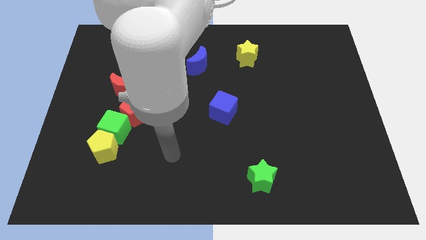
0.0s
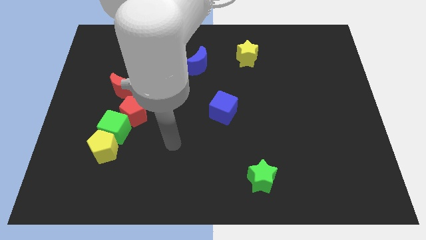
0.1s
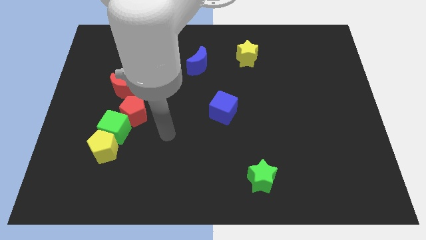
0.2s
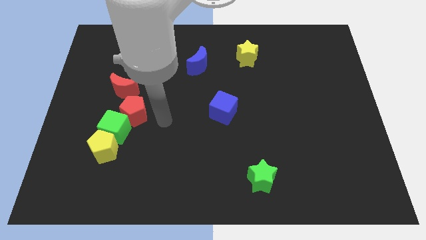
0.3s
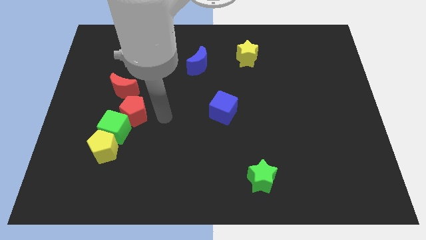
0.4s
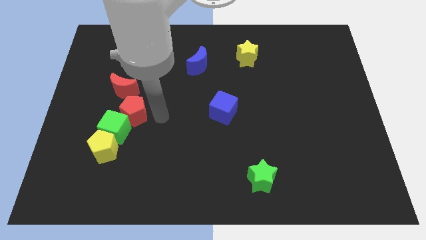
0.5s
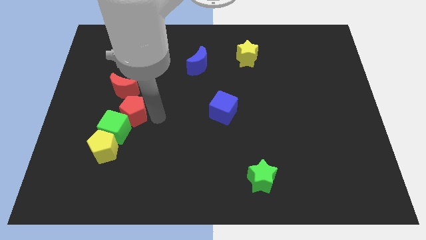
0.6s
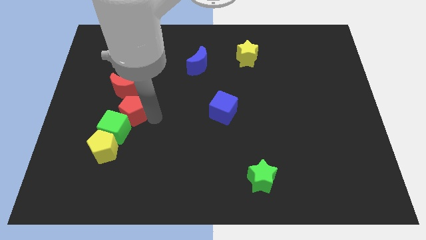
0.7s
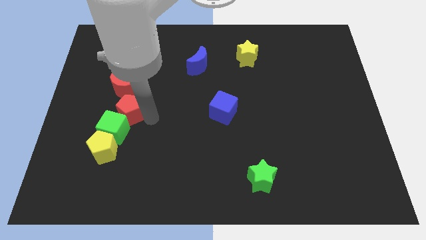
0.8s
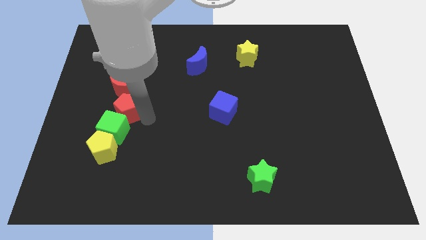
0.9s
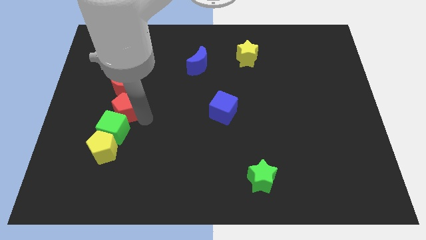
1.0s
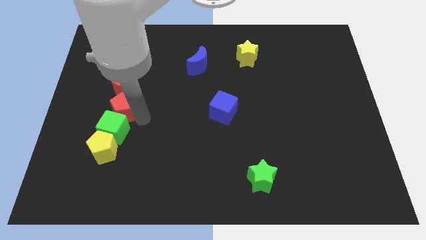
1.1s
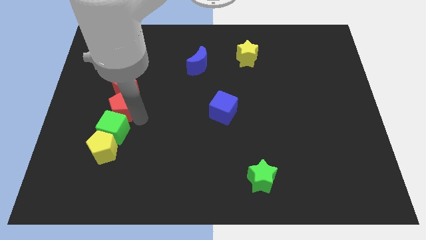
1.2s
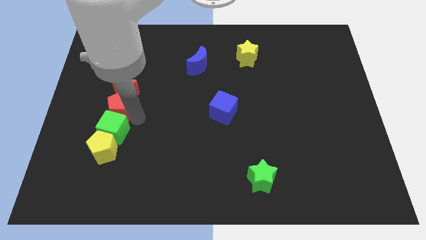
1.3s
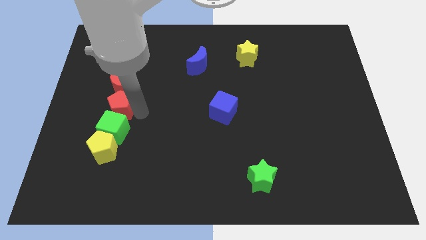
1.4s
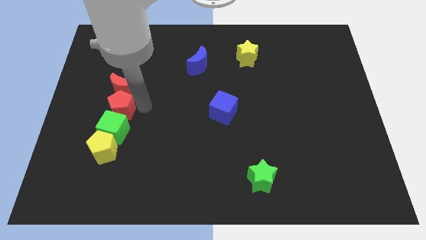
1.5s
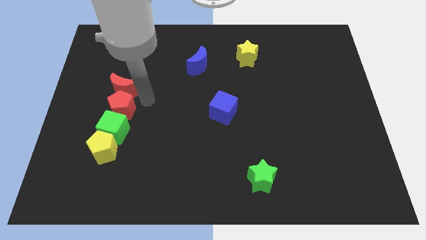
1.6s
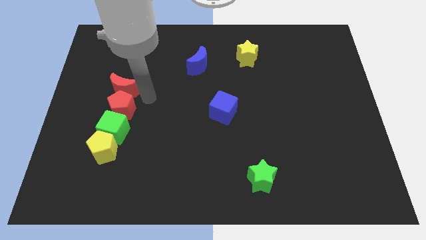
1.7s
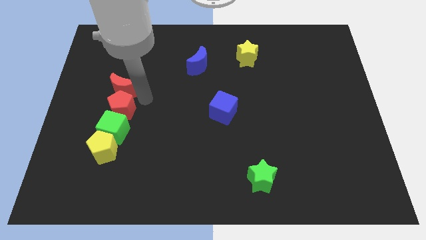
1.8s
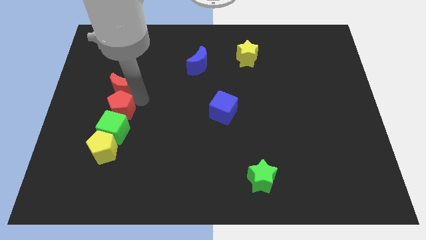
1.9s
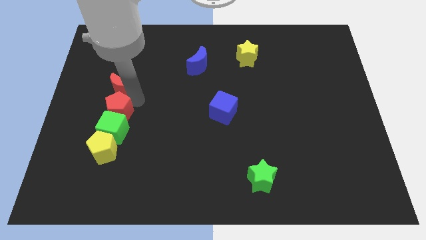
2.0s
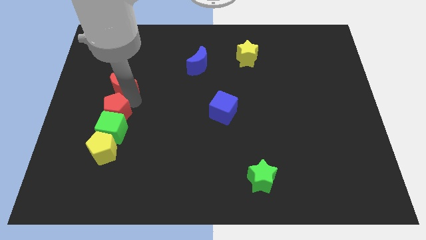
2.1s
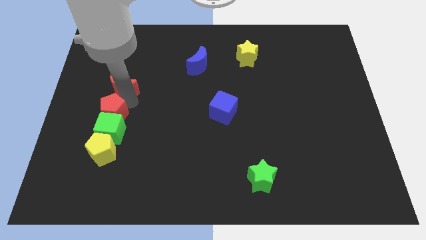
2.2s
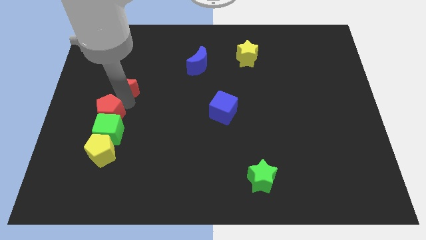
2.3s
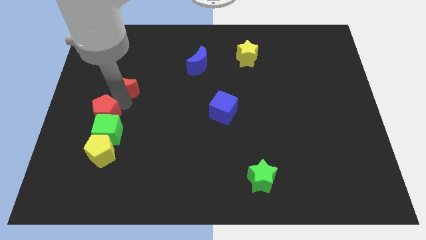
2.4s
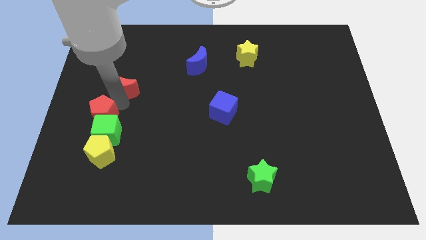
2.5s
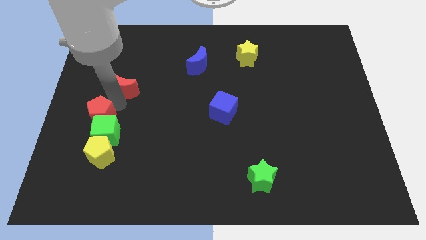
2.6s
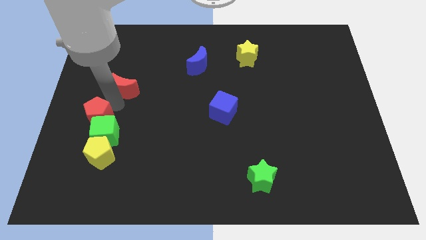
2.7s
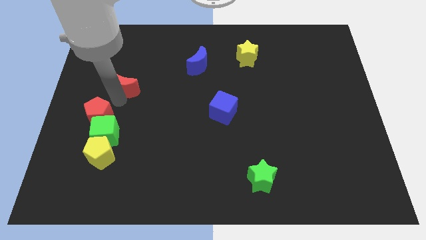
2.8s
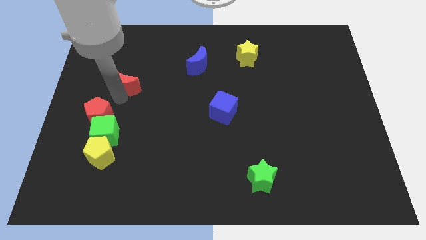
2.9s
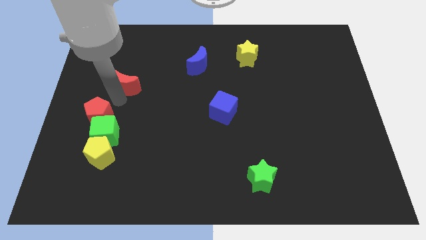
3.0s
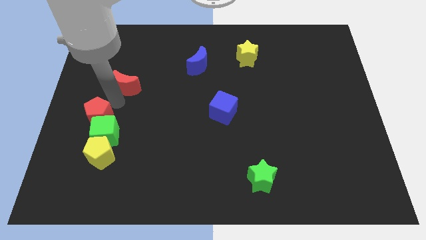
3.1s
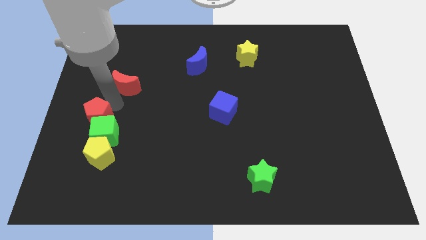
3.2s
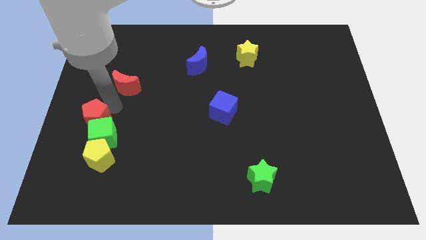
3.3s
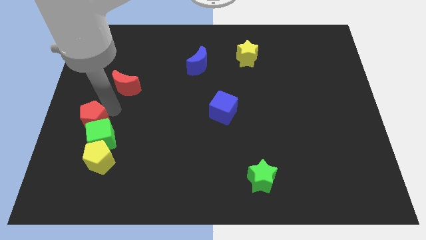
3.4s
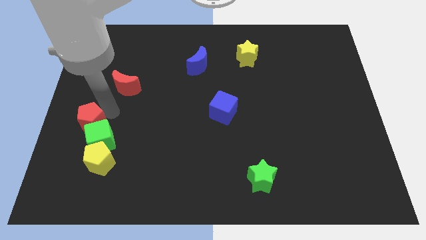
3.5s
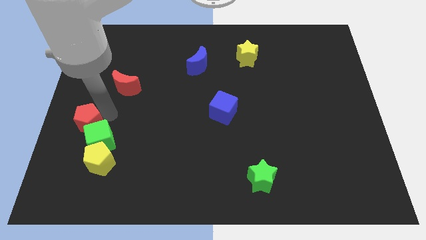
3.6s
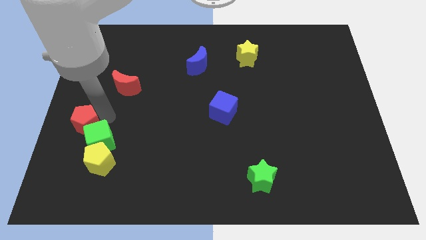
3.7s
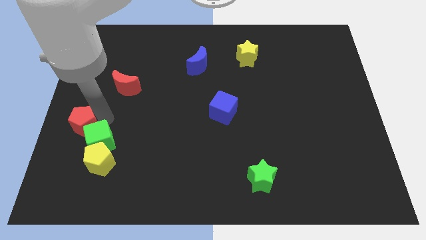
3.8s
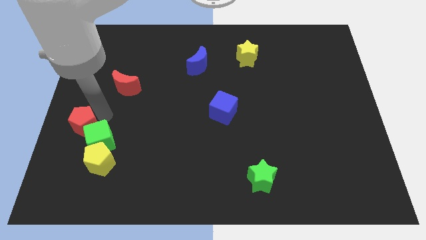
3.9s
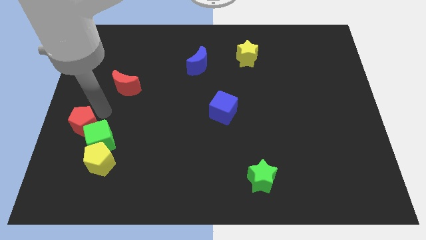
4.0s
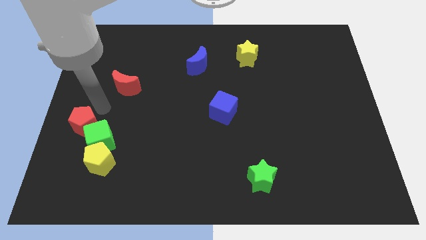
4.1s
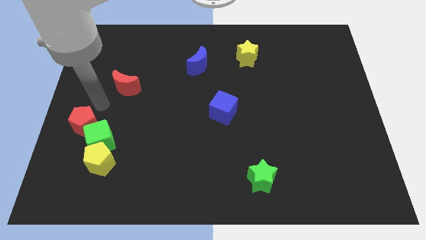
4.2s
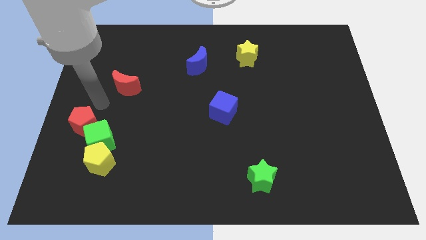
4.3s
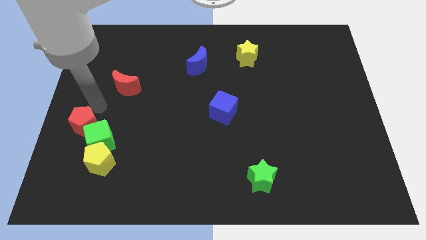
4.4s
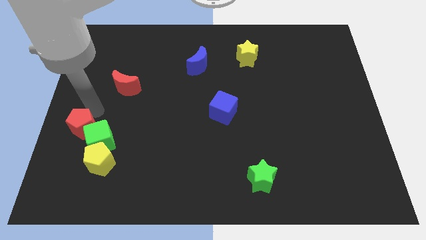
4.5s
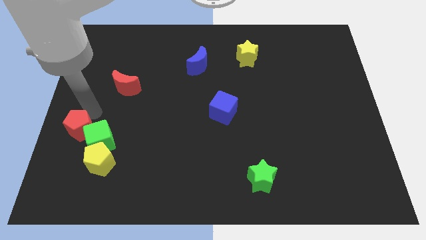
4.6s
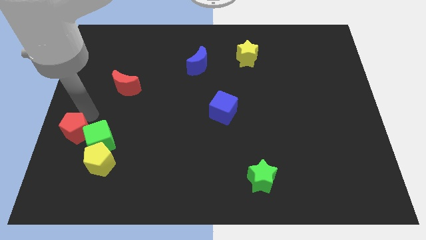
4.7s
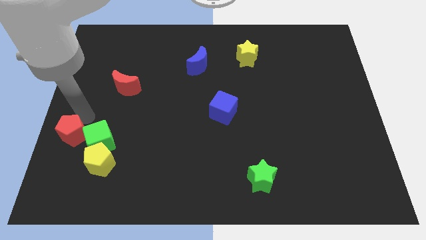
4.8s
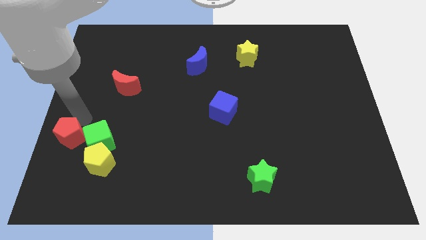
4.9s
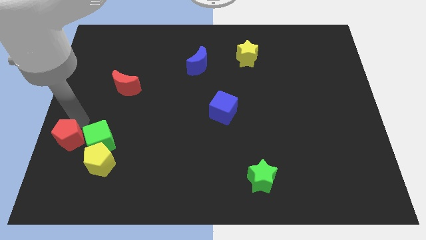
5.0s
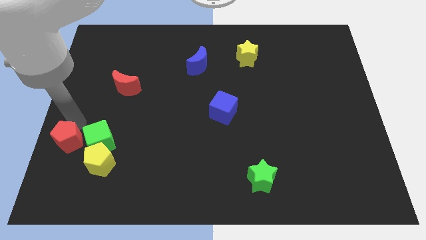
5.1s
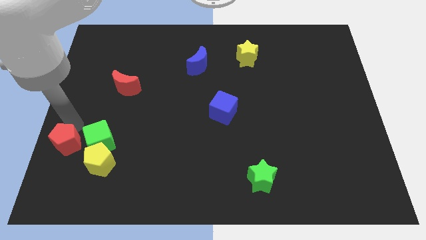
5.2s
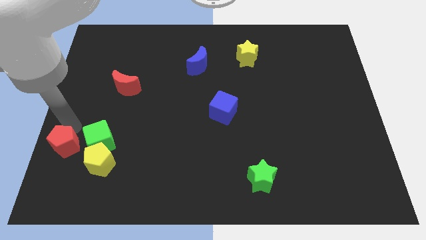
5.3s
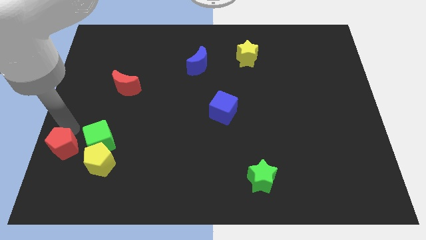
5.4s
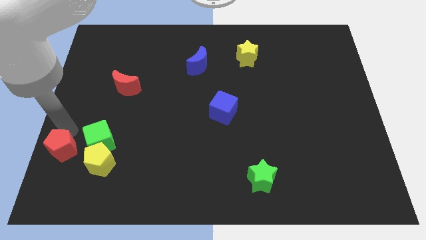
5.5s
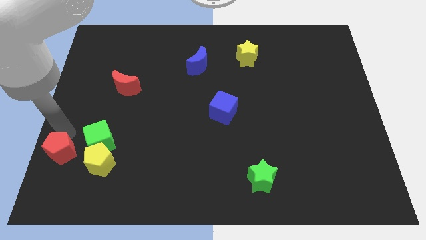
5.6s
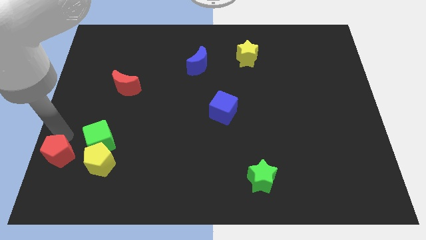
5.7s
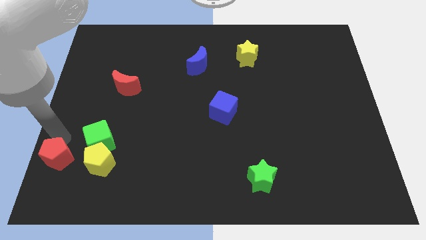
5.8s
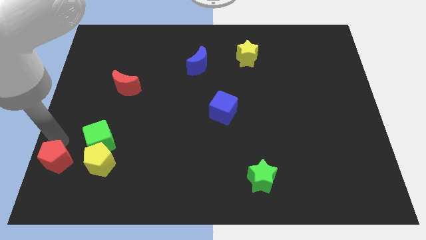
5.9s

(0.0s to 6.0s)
push the red pentagon to the lower left corner

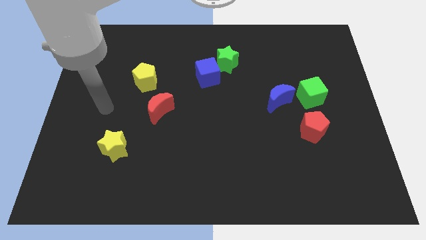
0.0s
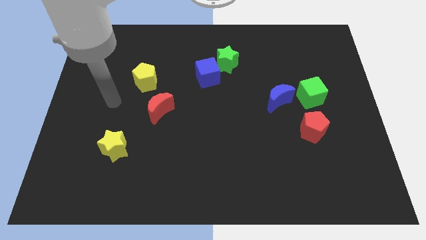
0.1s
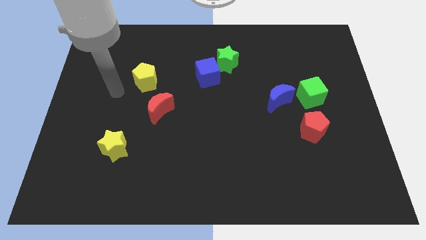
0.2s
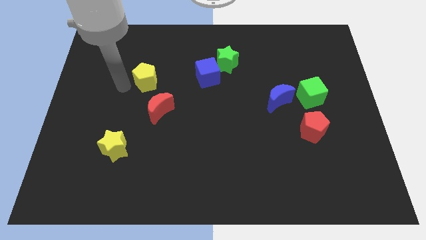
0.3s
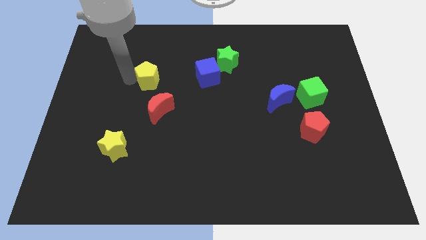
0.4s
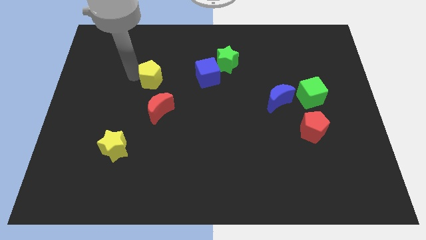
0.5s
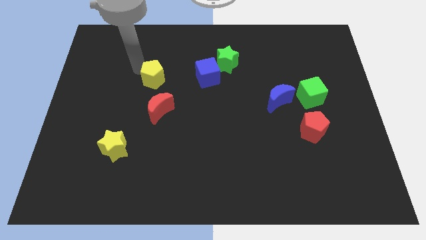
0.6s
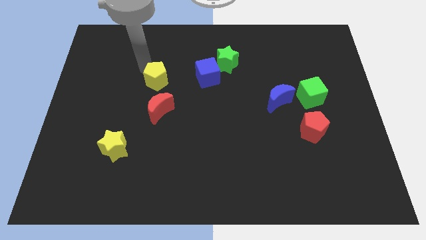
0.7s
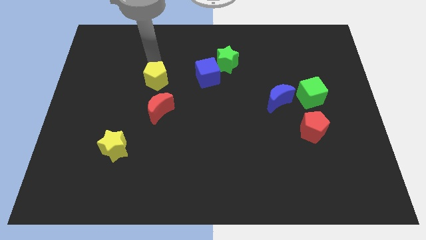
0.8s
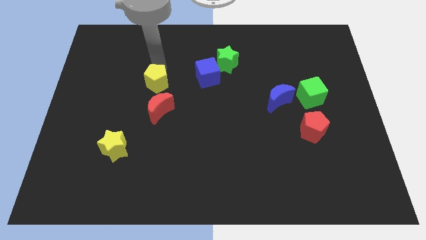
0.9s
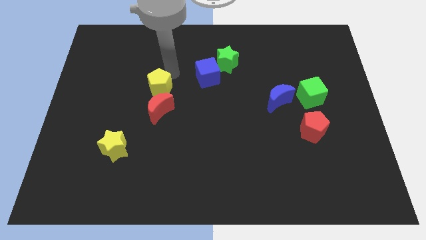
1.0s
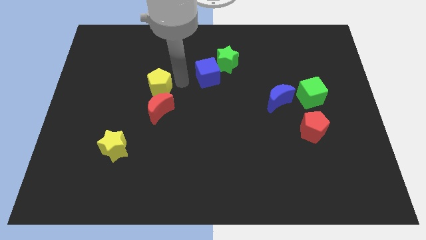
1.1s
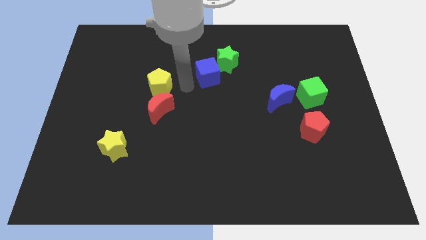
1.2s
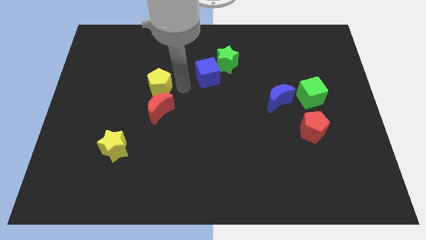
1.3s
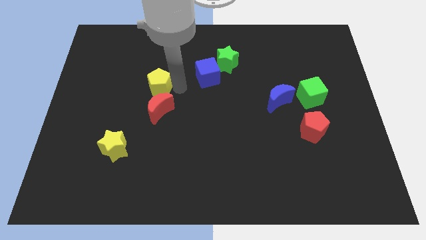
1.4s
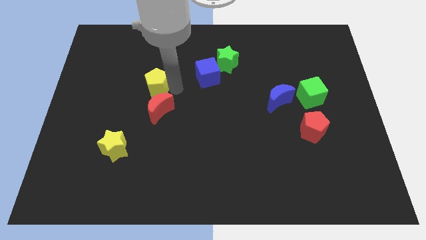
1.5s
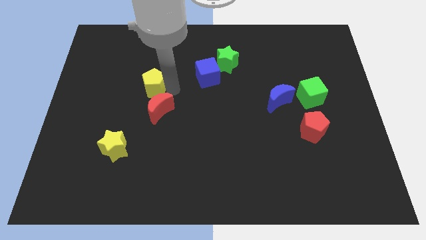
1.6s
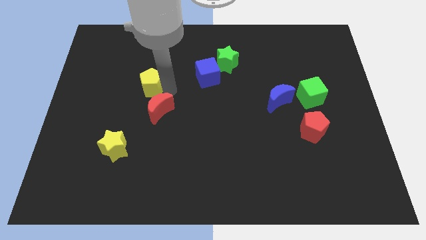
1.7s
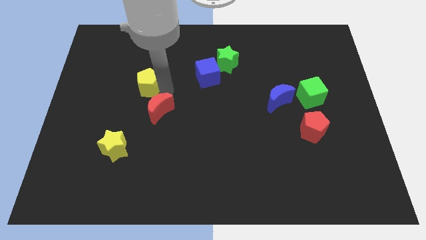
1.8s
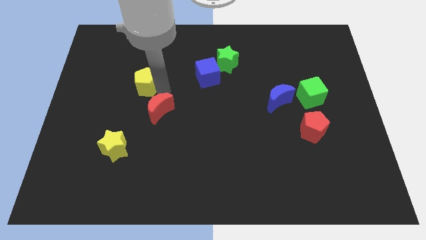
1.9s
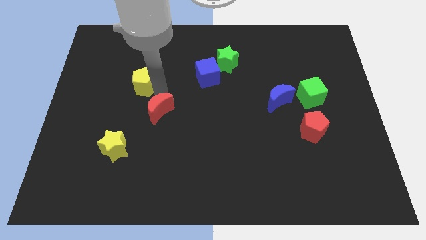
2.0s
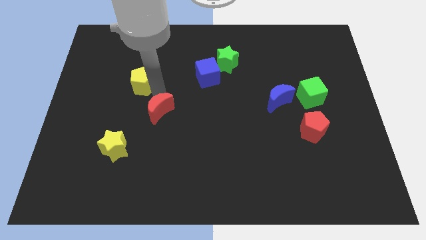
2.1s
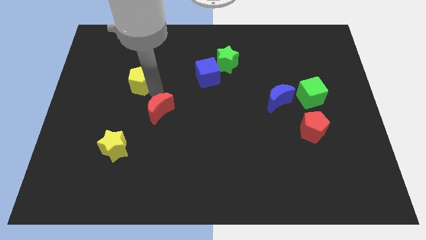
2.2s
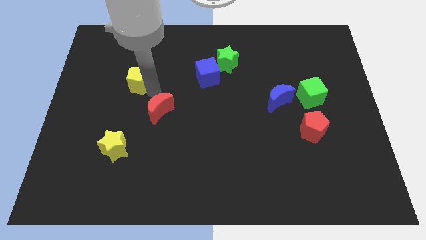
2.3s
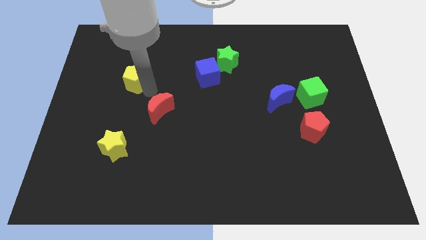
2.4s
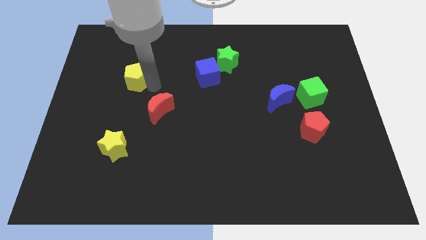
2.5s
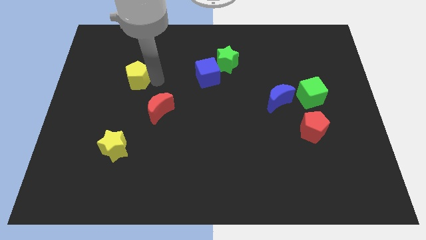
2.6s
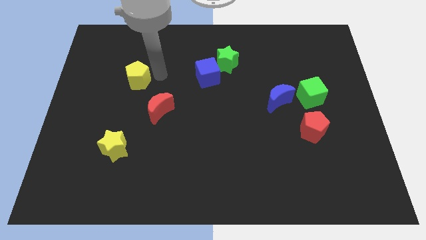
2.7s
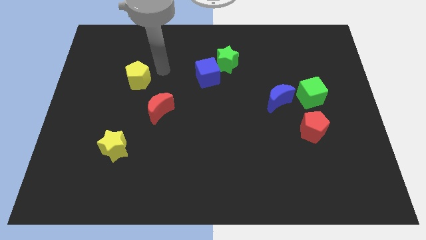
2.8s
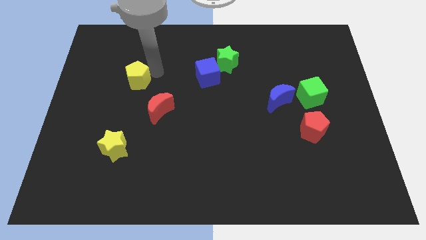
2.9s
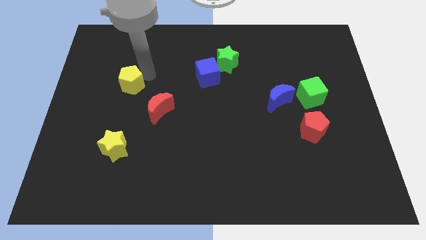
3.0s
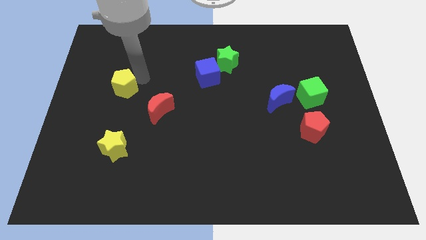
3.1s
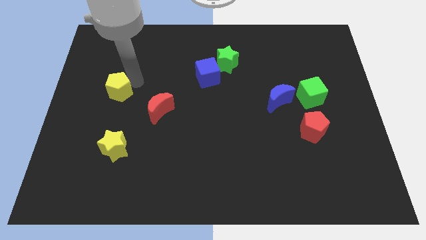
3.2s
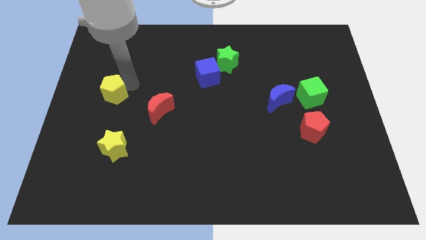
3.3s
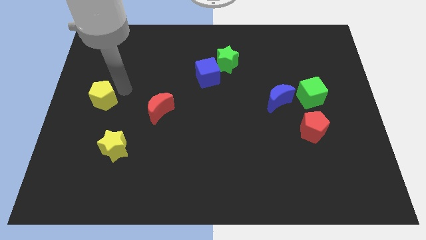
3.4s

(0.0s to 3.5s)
move the yellow pentagon to the left side
